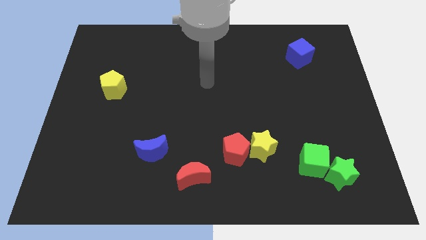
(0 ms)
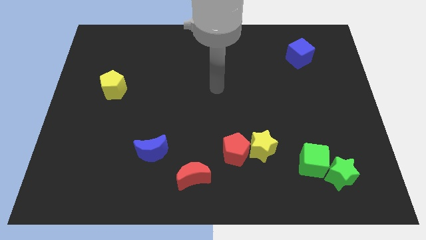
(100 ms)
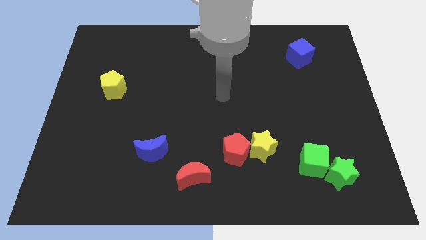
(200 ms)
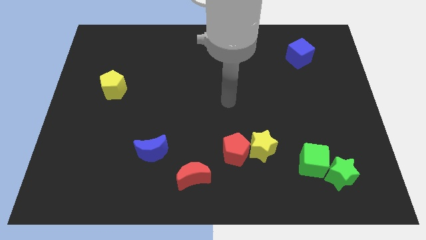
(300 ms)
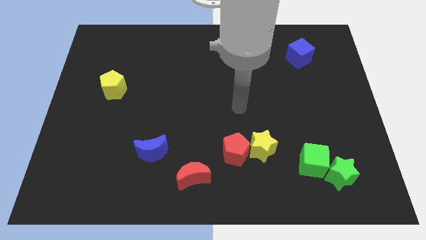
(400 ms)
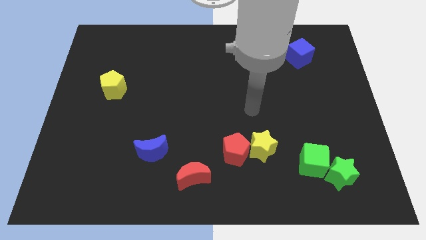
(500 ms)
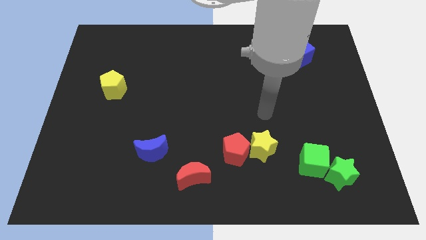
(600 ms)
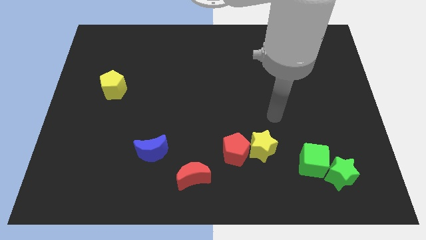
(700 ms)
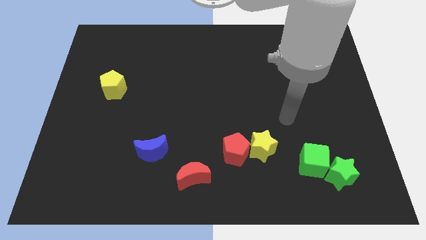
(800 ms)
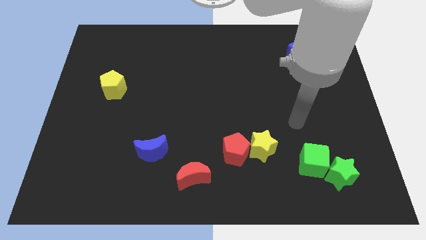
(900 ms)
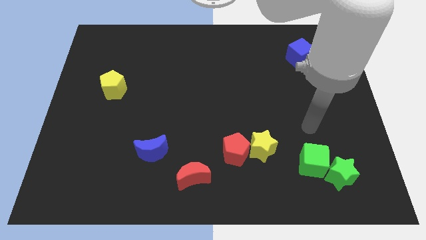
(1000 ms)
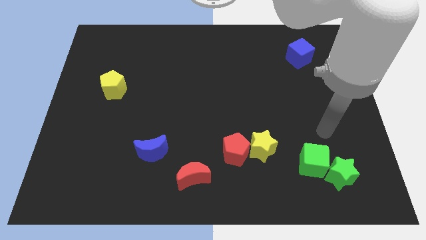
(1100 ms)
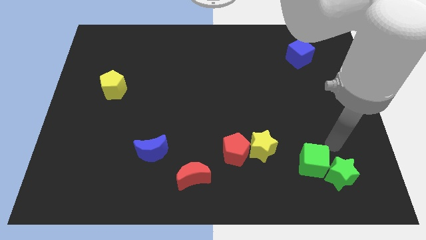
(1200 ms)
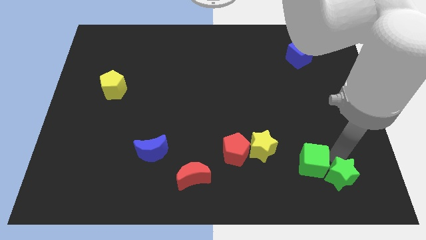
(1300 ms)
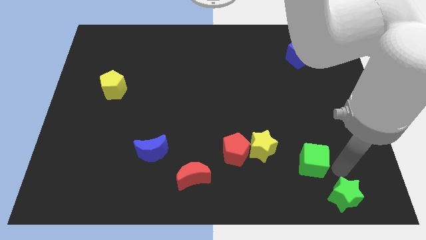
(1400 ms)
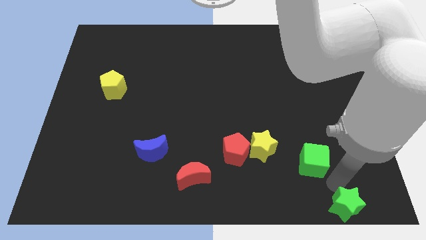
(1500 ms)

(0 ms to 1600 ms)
separate the green cube from the green star

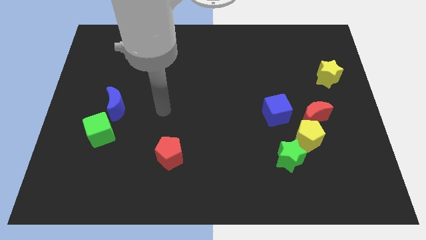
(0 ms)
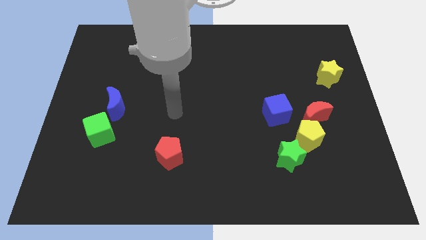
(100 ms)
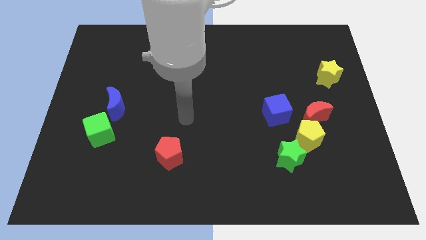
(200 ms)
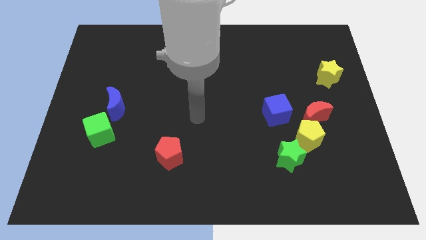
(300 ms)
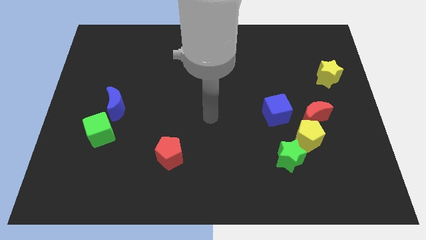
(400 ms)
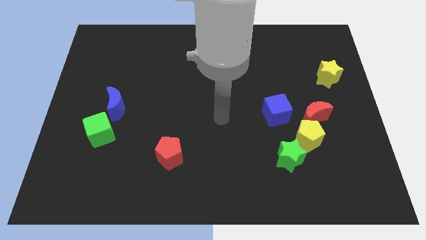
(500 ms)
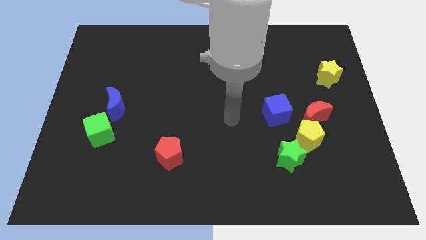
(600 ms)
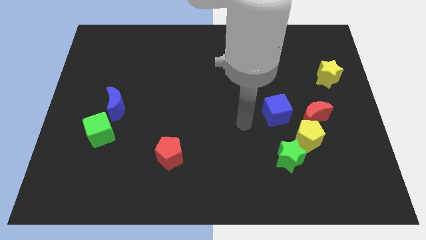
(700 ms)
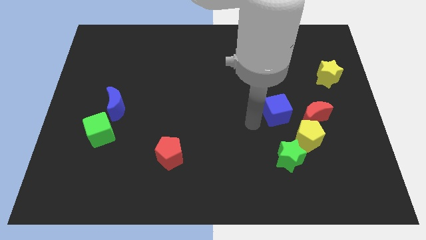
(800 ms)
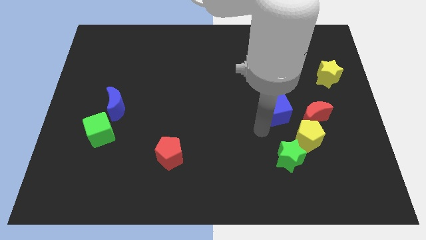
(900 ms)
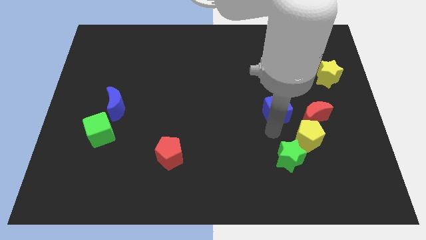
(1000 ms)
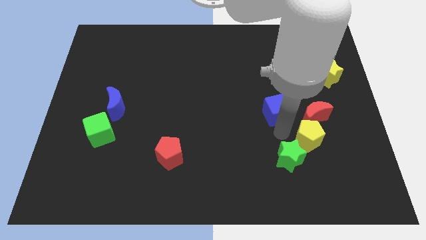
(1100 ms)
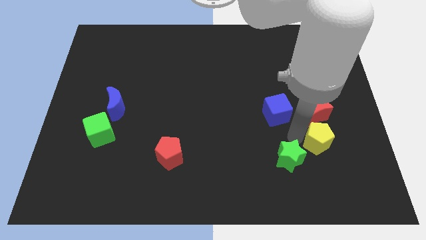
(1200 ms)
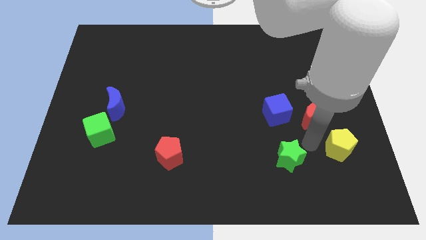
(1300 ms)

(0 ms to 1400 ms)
pull the green star apart from the yellow pentagon

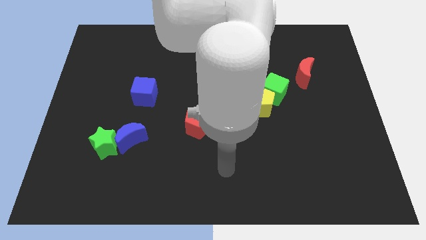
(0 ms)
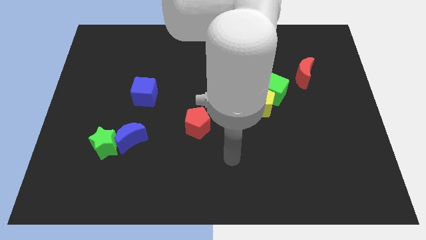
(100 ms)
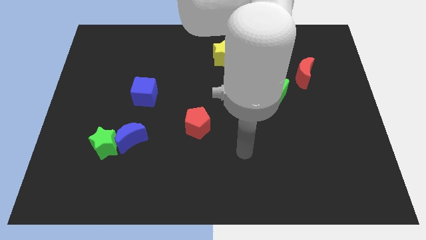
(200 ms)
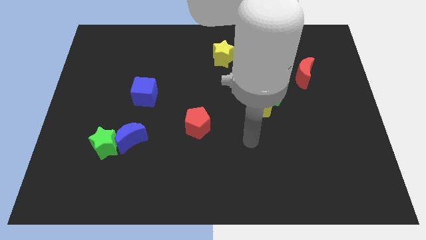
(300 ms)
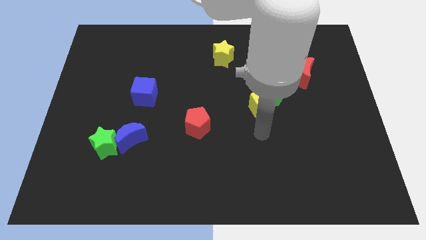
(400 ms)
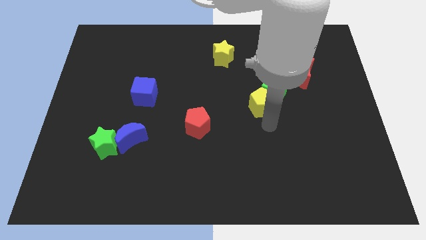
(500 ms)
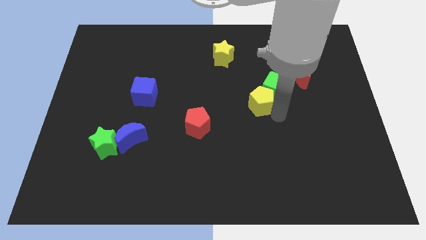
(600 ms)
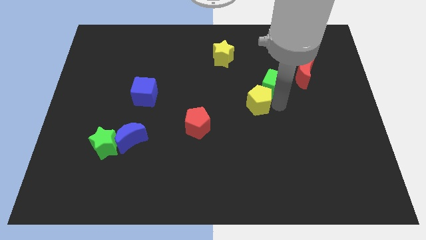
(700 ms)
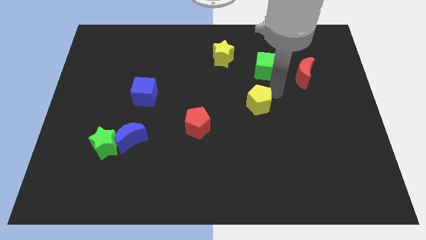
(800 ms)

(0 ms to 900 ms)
separate the yellow pentagon from the green cube

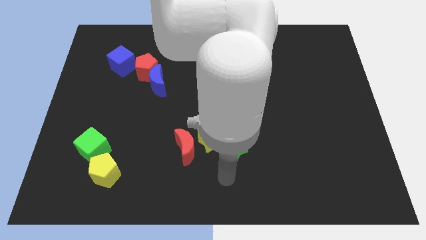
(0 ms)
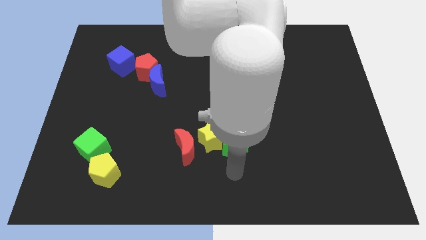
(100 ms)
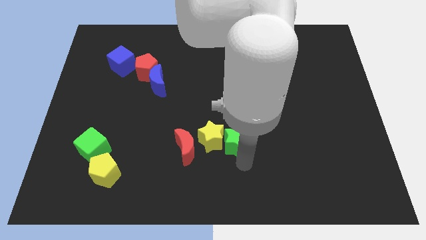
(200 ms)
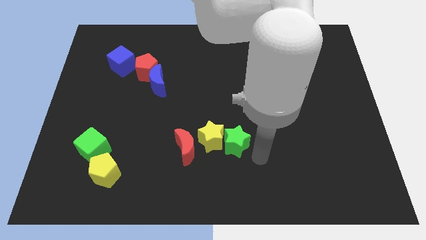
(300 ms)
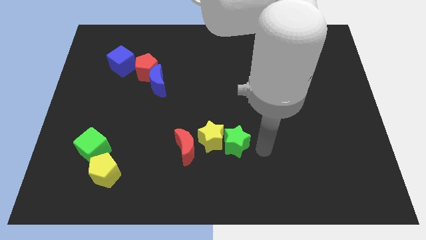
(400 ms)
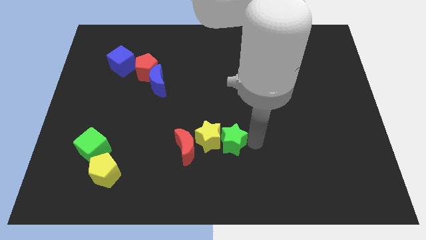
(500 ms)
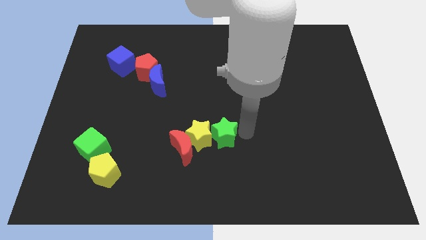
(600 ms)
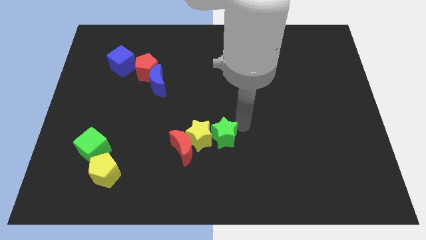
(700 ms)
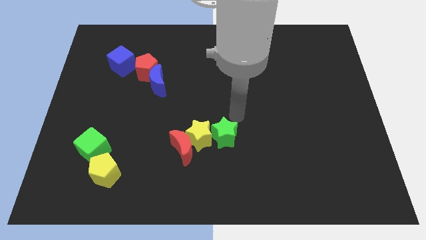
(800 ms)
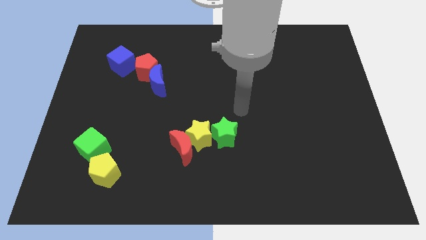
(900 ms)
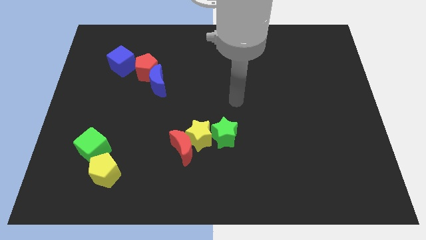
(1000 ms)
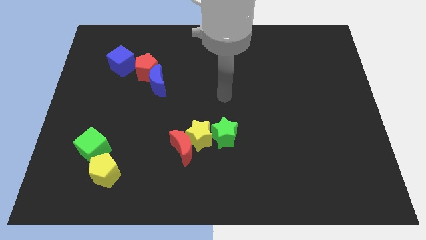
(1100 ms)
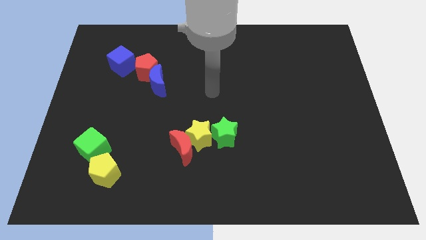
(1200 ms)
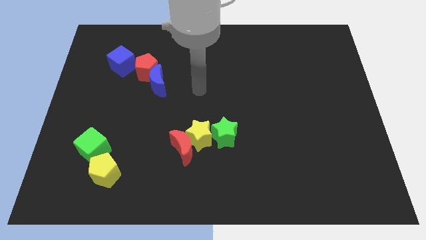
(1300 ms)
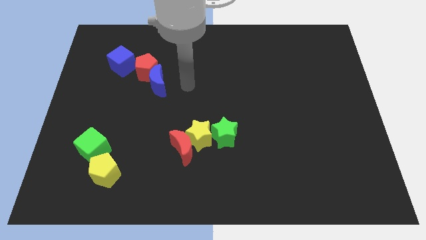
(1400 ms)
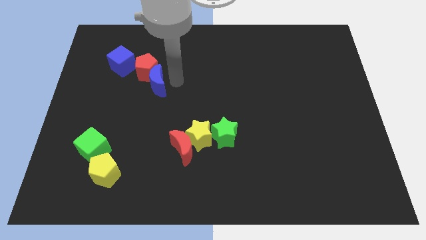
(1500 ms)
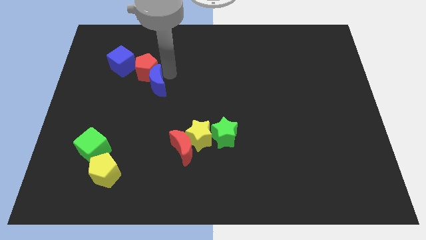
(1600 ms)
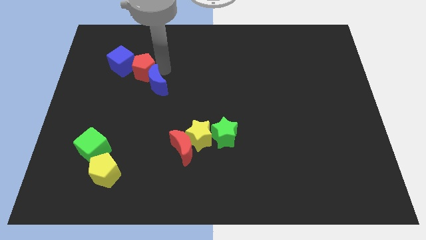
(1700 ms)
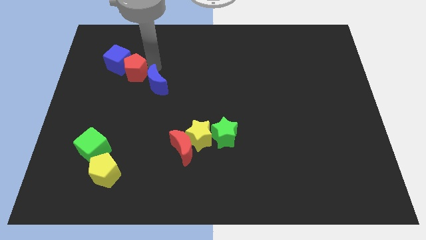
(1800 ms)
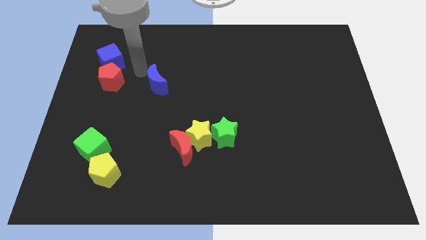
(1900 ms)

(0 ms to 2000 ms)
separate the blue moon from the red pentagon

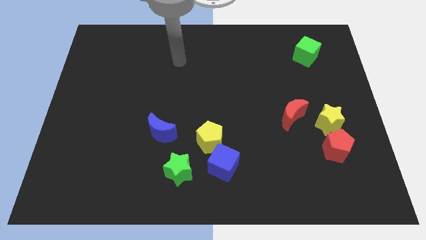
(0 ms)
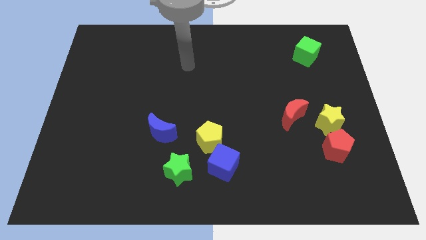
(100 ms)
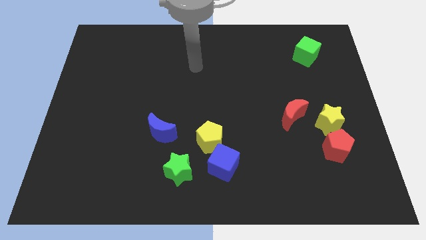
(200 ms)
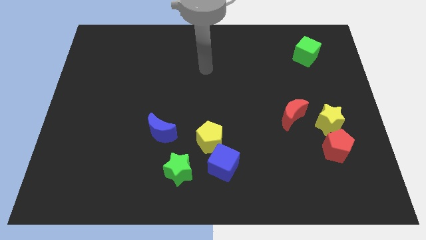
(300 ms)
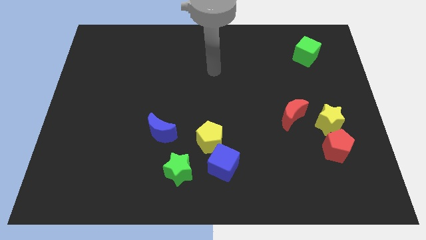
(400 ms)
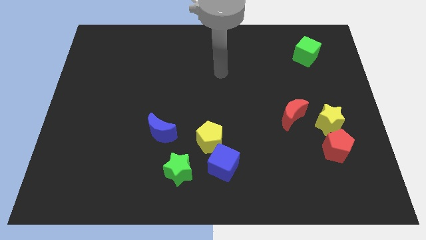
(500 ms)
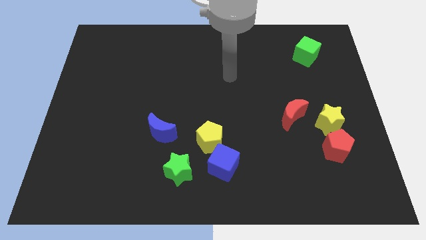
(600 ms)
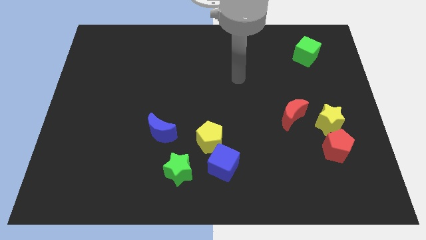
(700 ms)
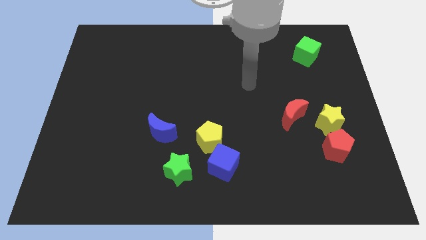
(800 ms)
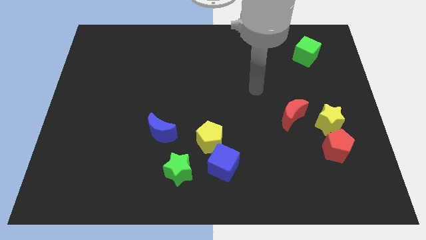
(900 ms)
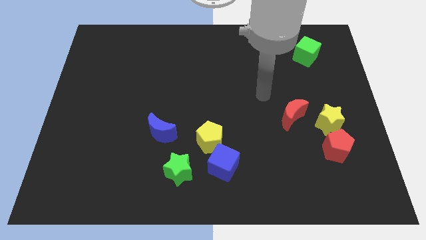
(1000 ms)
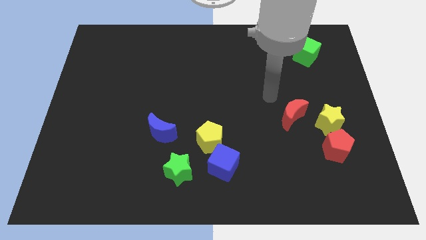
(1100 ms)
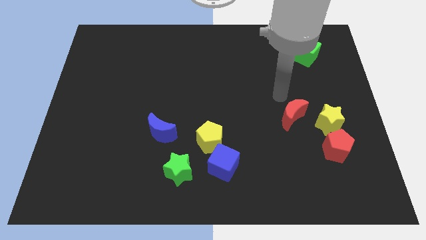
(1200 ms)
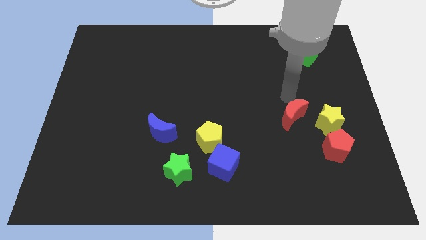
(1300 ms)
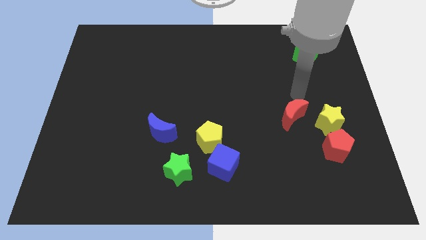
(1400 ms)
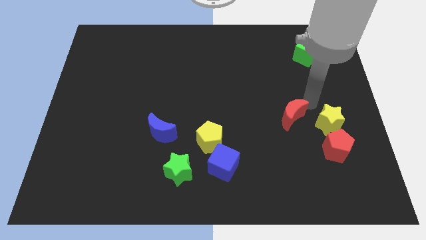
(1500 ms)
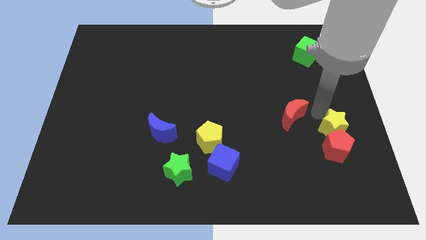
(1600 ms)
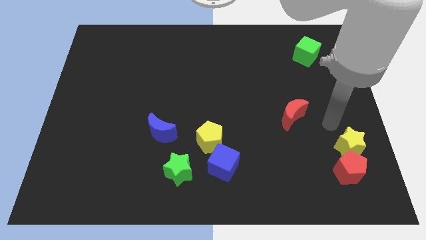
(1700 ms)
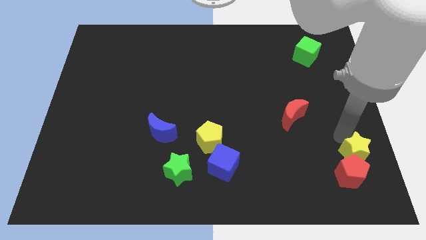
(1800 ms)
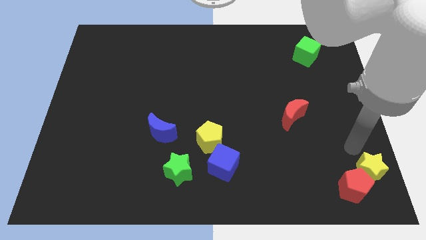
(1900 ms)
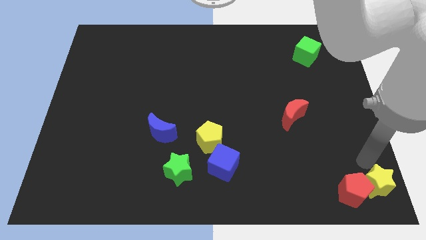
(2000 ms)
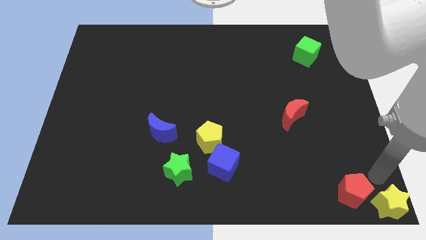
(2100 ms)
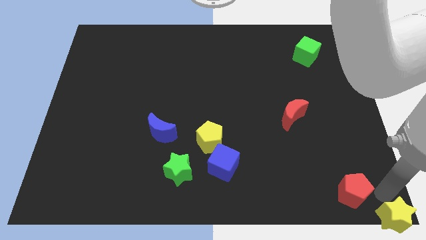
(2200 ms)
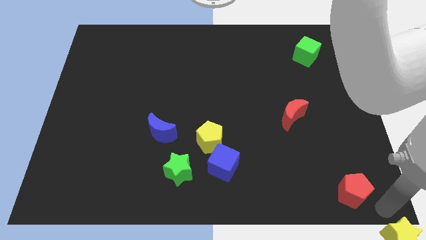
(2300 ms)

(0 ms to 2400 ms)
pull the red pentagon apart from the yellow star

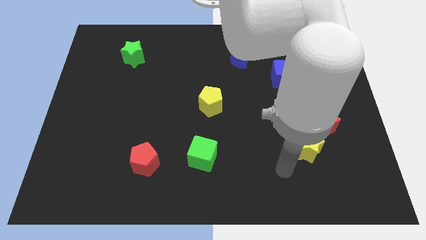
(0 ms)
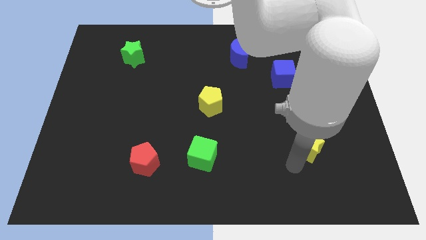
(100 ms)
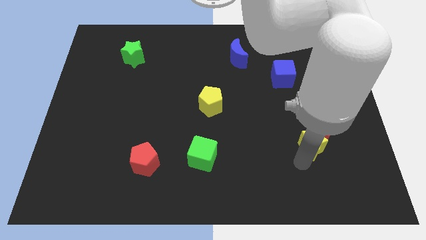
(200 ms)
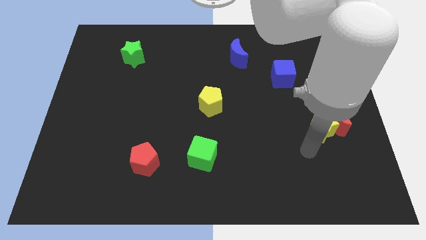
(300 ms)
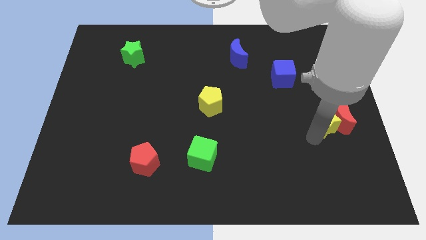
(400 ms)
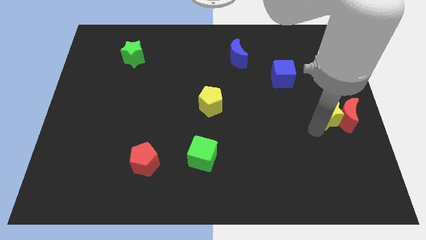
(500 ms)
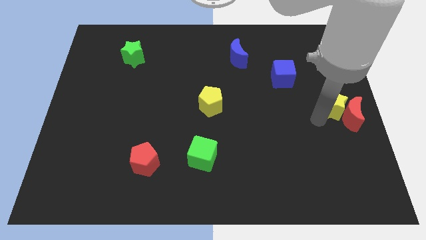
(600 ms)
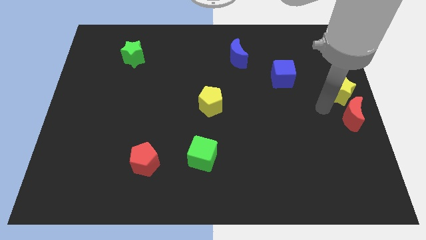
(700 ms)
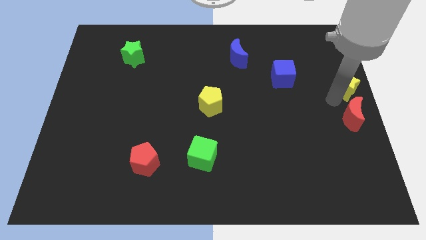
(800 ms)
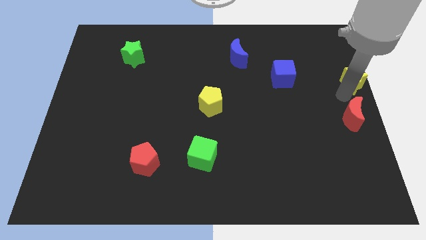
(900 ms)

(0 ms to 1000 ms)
pull the red moon apart from the yellow star
